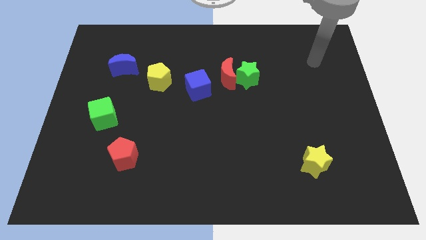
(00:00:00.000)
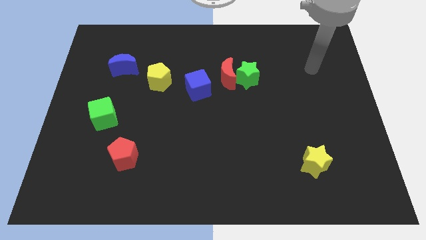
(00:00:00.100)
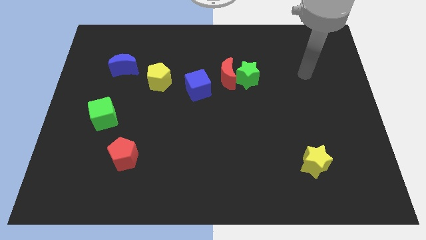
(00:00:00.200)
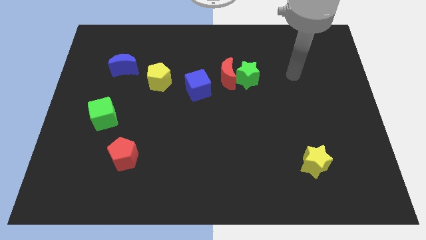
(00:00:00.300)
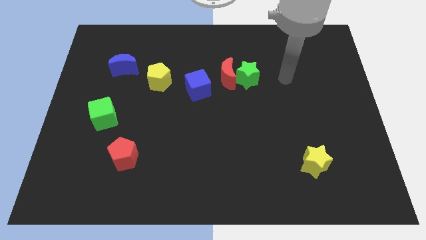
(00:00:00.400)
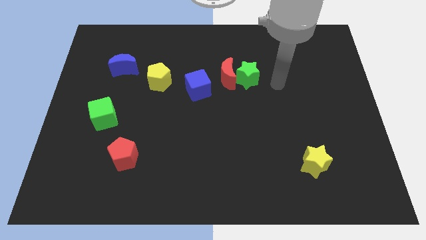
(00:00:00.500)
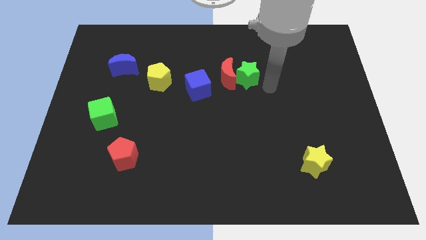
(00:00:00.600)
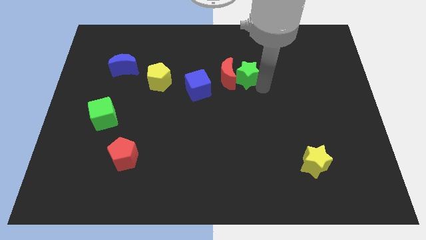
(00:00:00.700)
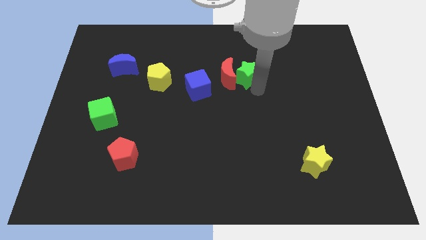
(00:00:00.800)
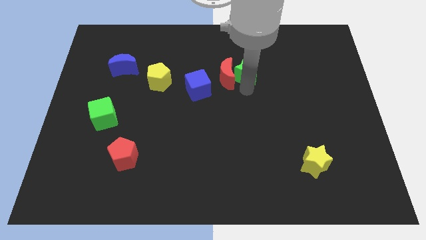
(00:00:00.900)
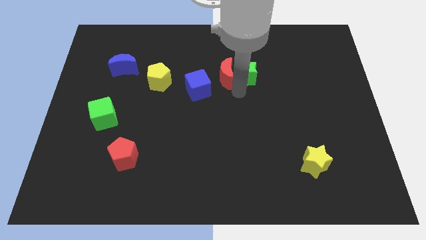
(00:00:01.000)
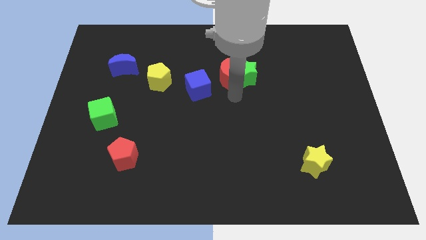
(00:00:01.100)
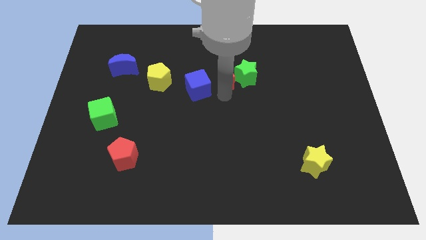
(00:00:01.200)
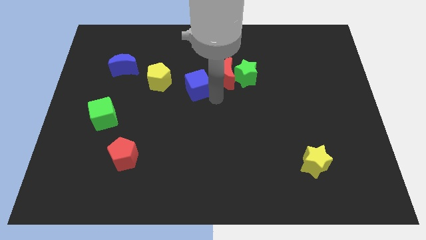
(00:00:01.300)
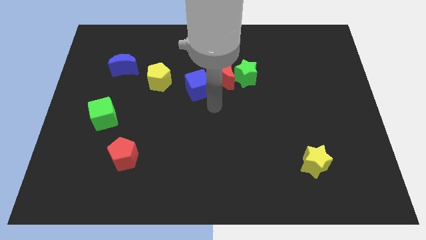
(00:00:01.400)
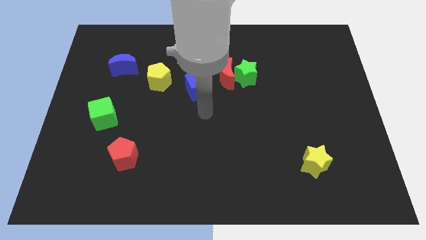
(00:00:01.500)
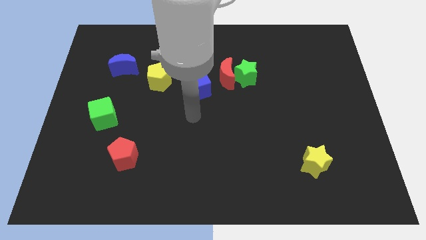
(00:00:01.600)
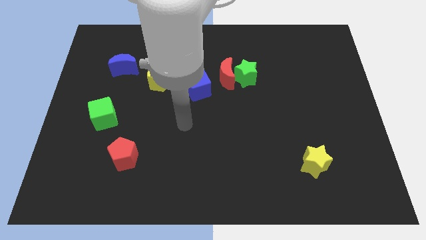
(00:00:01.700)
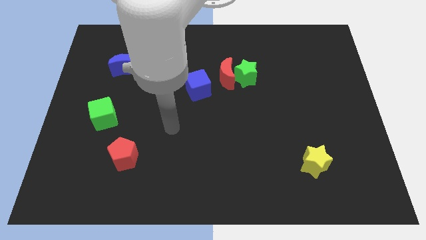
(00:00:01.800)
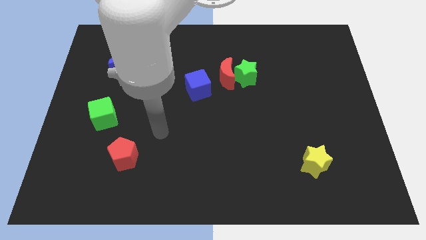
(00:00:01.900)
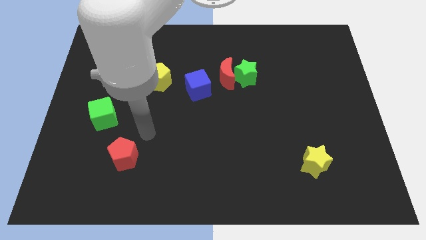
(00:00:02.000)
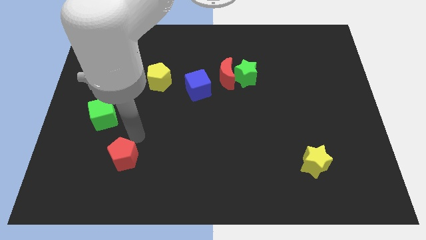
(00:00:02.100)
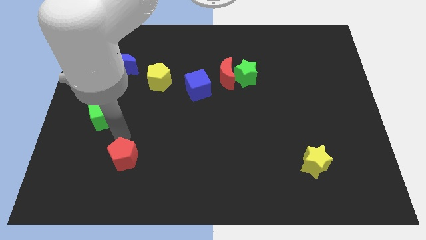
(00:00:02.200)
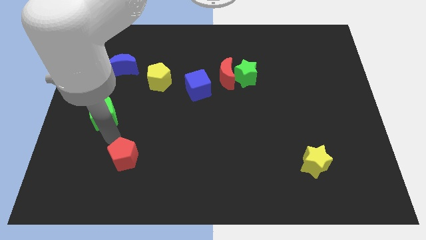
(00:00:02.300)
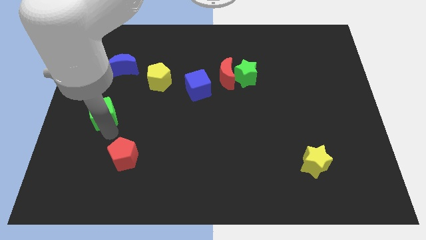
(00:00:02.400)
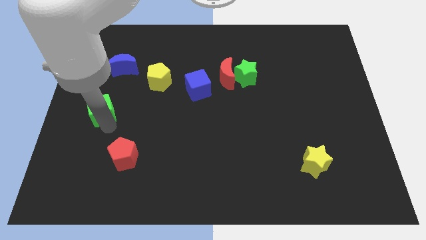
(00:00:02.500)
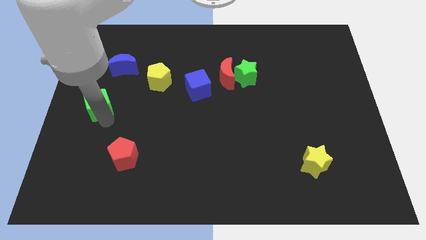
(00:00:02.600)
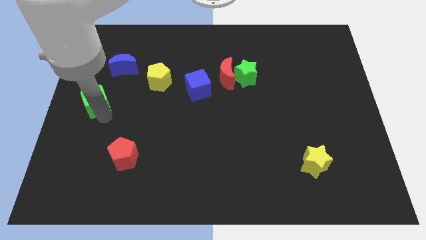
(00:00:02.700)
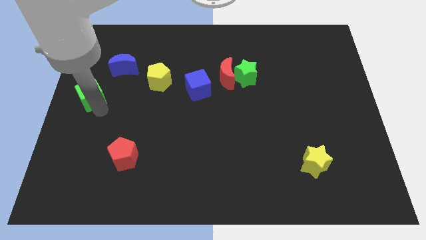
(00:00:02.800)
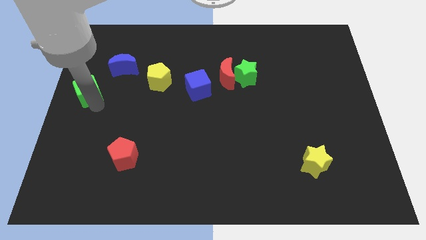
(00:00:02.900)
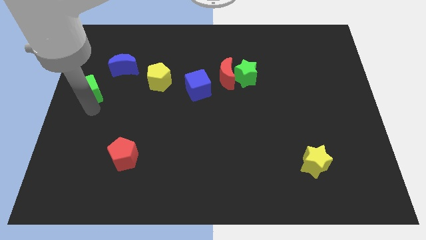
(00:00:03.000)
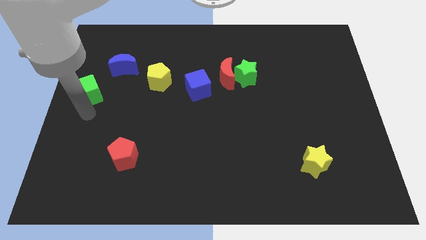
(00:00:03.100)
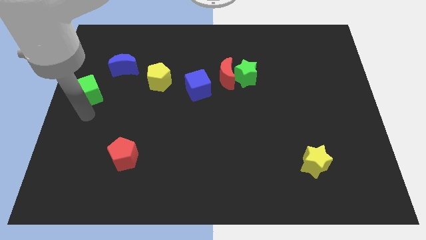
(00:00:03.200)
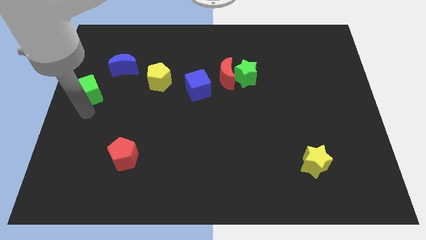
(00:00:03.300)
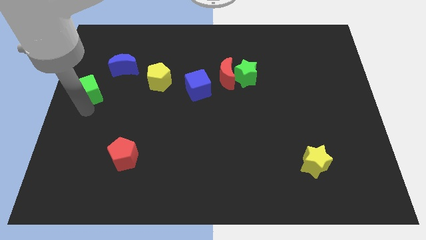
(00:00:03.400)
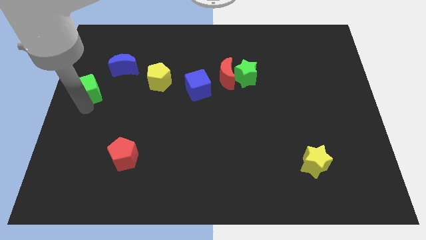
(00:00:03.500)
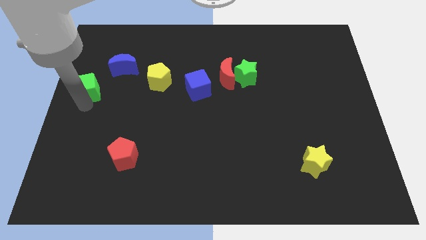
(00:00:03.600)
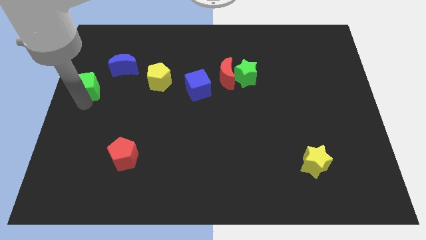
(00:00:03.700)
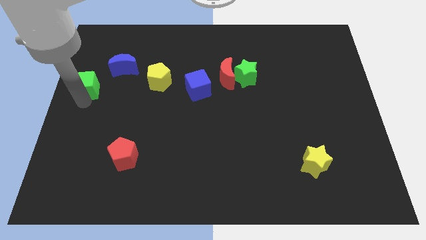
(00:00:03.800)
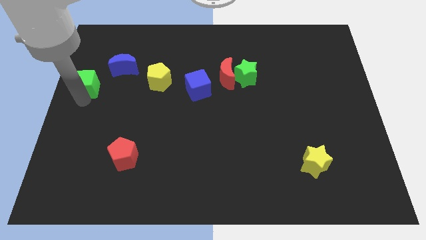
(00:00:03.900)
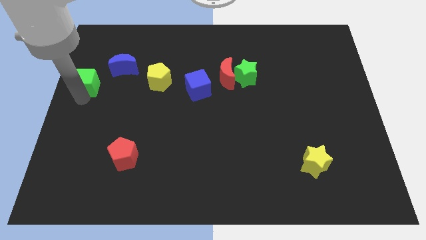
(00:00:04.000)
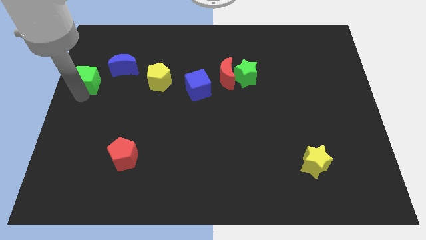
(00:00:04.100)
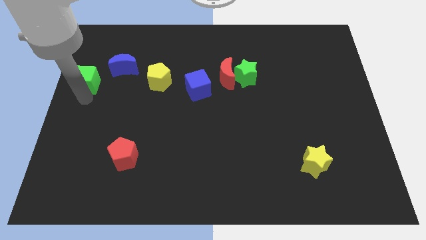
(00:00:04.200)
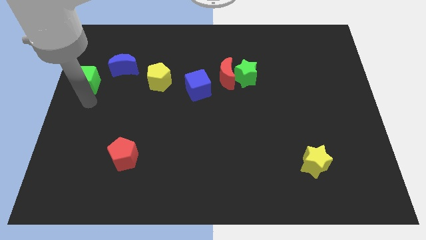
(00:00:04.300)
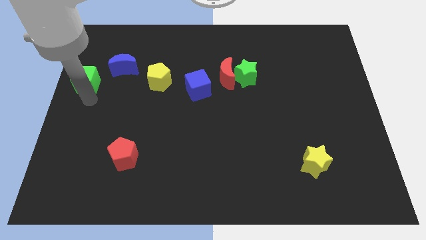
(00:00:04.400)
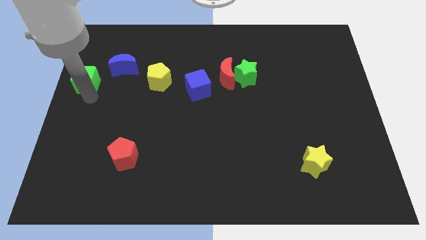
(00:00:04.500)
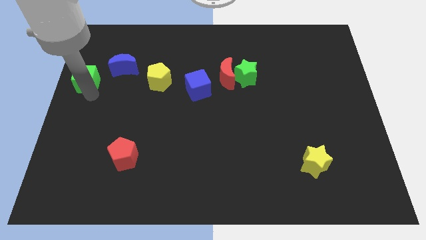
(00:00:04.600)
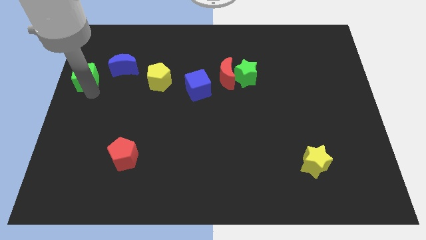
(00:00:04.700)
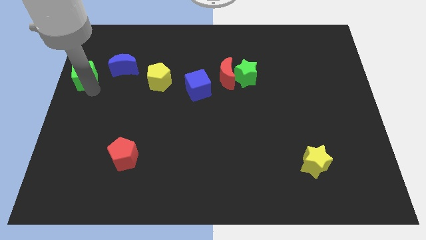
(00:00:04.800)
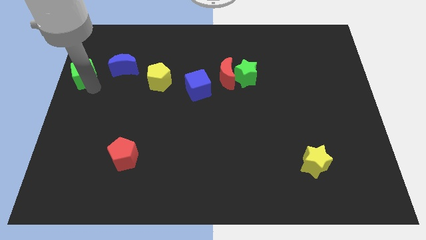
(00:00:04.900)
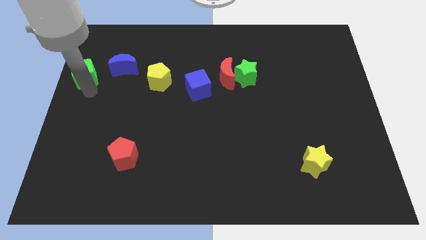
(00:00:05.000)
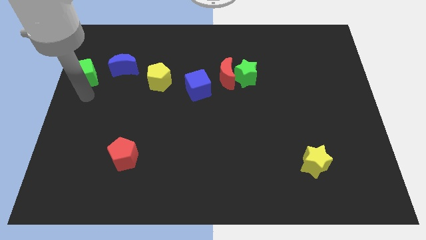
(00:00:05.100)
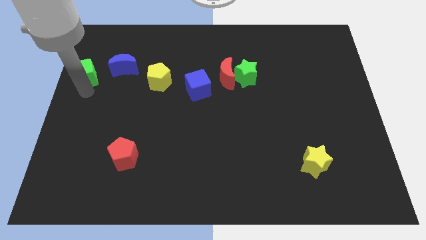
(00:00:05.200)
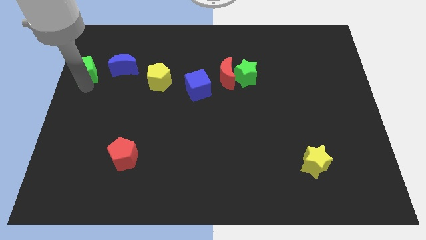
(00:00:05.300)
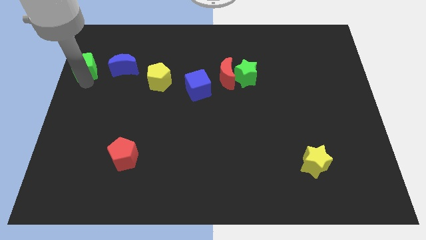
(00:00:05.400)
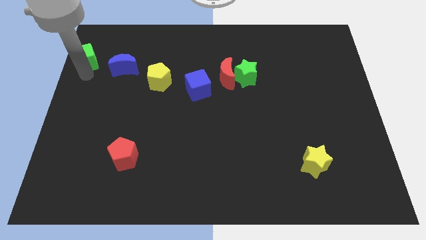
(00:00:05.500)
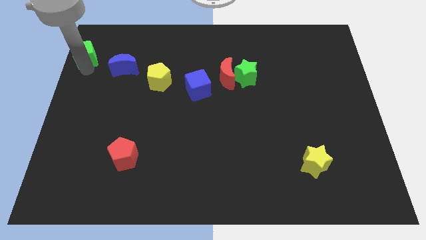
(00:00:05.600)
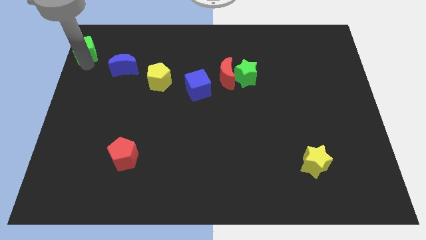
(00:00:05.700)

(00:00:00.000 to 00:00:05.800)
put the green cube to the top left corner
